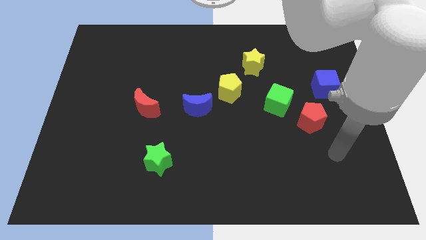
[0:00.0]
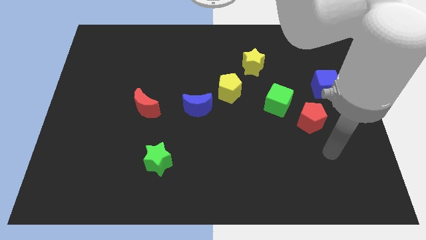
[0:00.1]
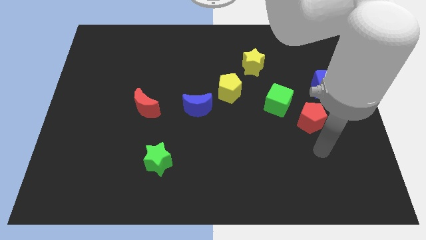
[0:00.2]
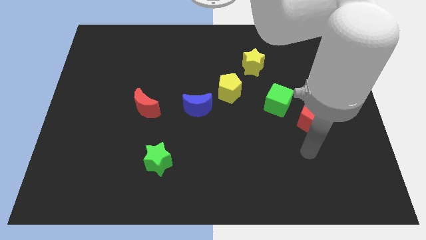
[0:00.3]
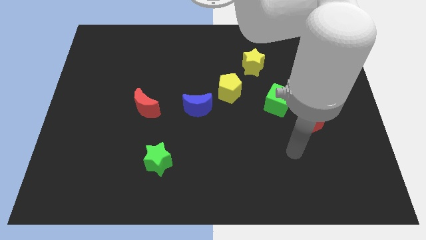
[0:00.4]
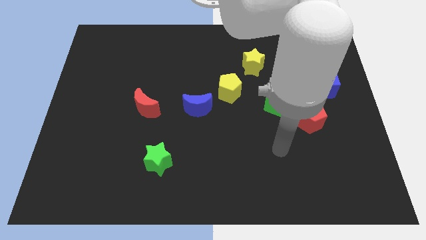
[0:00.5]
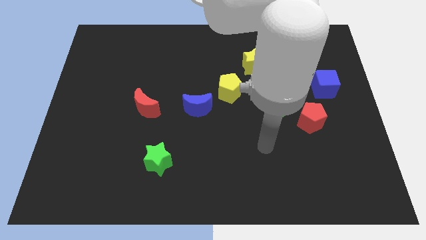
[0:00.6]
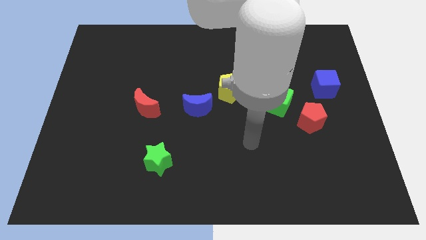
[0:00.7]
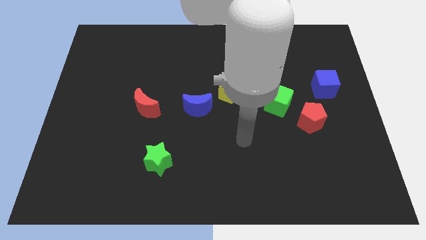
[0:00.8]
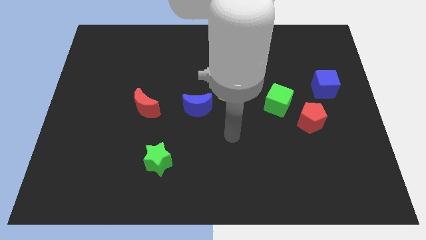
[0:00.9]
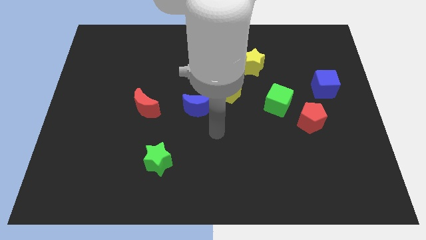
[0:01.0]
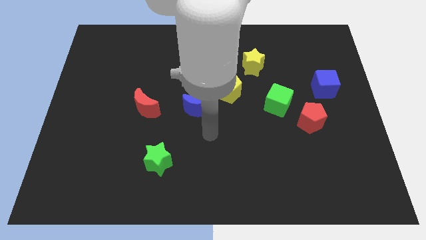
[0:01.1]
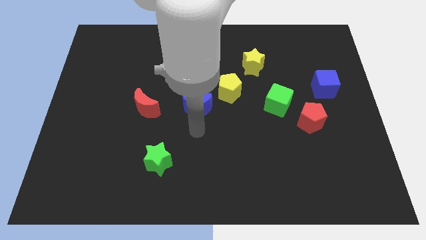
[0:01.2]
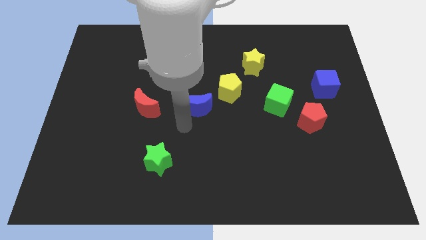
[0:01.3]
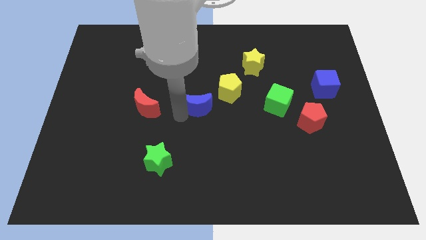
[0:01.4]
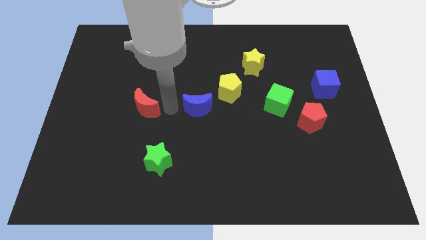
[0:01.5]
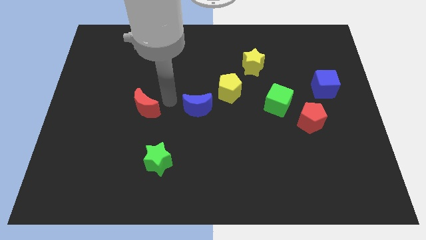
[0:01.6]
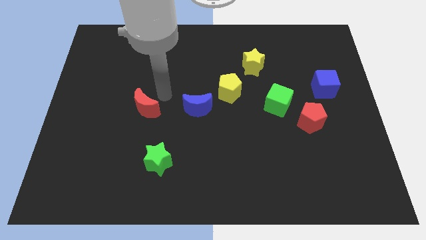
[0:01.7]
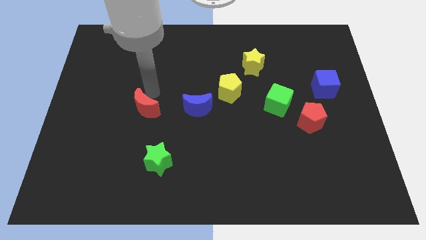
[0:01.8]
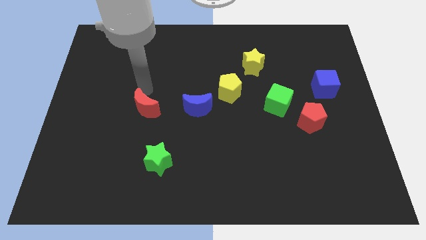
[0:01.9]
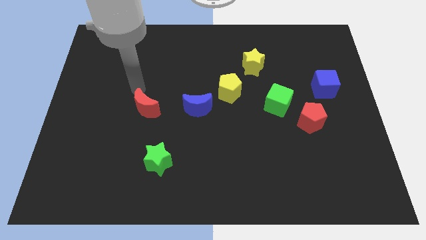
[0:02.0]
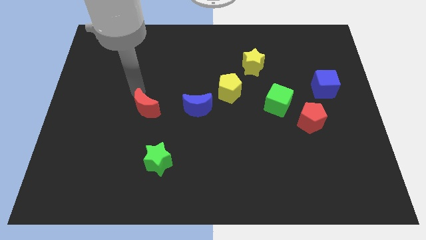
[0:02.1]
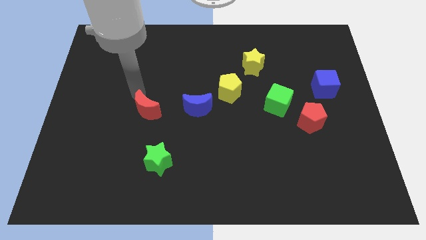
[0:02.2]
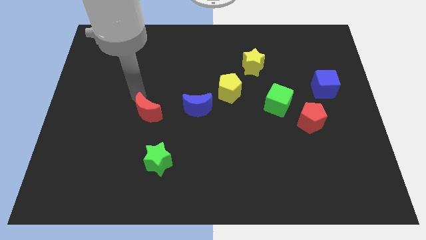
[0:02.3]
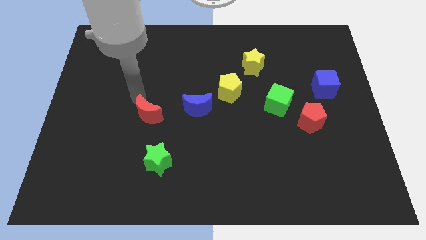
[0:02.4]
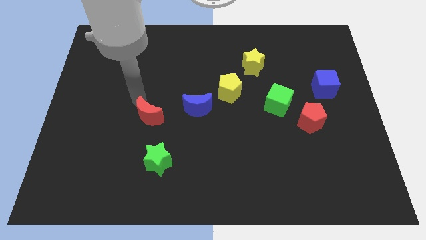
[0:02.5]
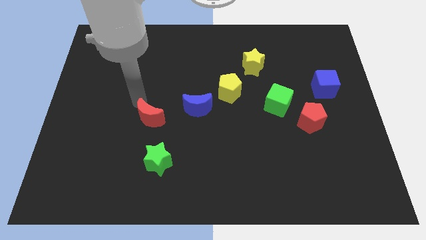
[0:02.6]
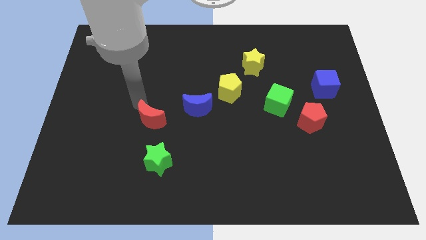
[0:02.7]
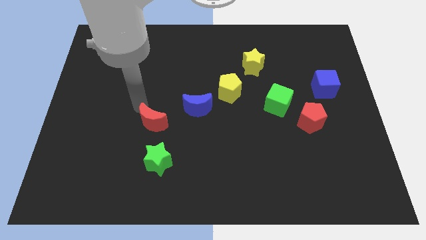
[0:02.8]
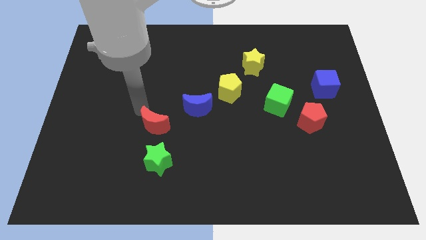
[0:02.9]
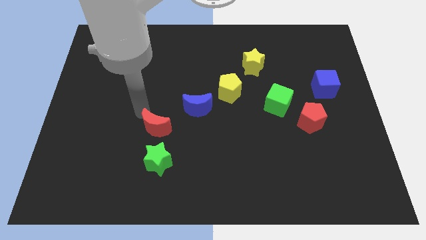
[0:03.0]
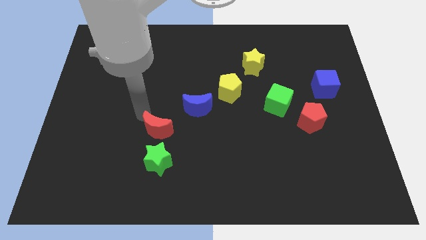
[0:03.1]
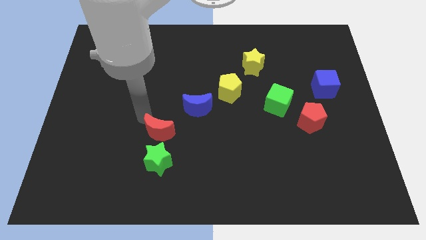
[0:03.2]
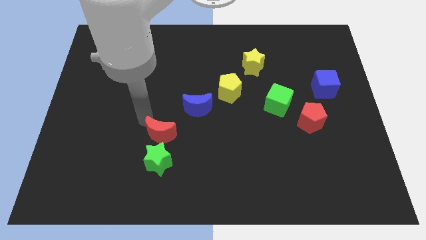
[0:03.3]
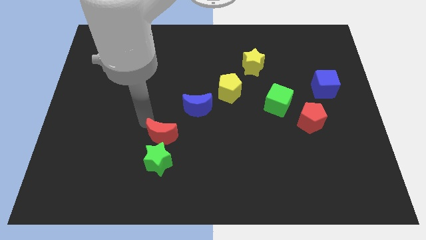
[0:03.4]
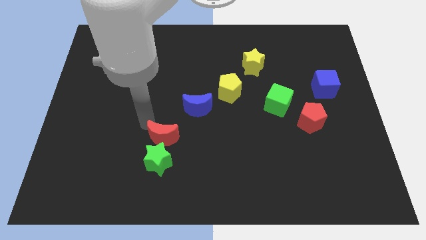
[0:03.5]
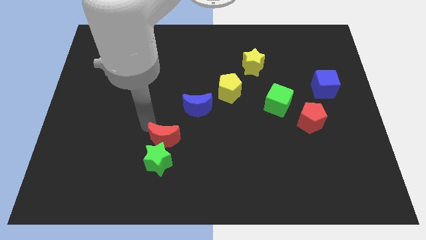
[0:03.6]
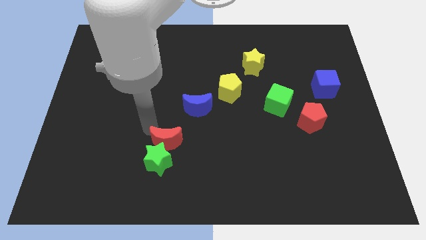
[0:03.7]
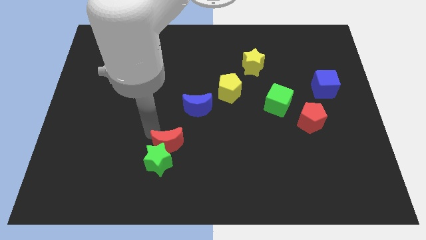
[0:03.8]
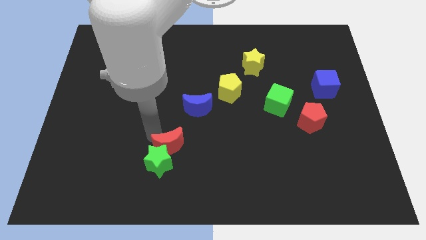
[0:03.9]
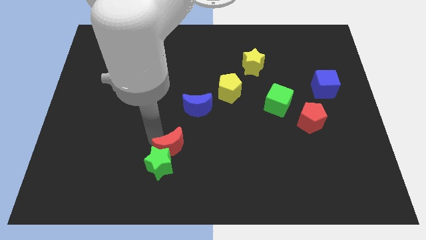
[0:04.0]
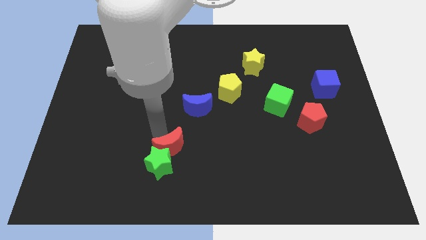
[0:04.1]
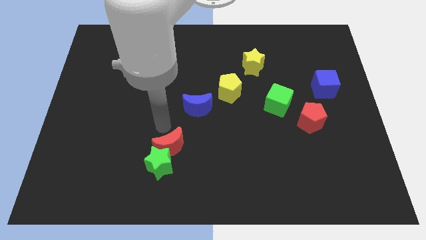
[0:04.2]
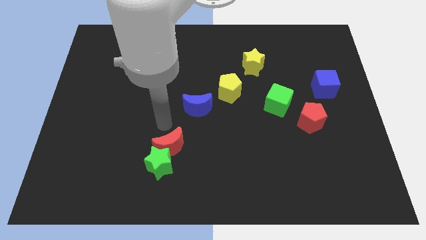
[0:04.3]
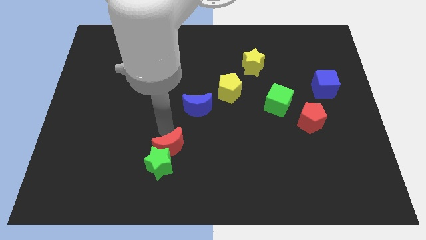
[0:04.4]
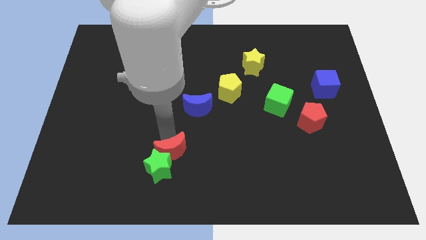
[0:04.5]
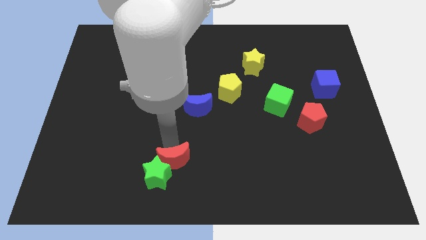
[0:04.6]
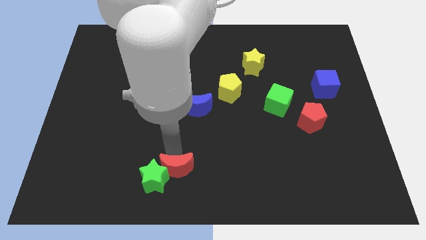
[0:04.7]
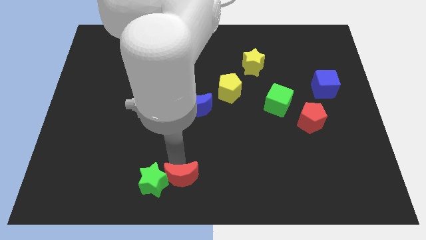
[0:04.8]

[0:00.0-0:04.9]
slide the red moon diagonally down and to the right of the green star

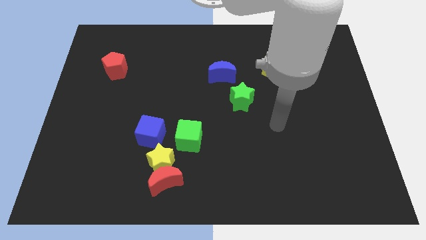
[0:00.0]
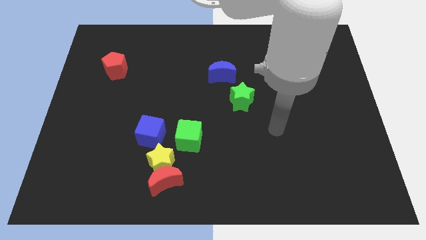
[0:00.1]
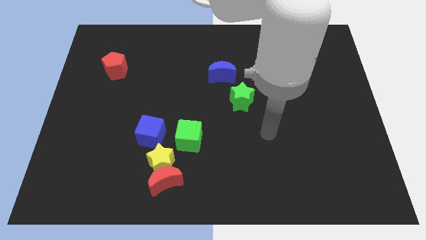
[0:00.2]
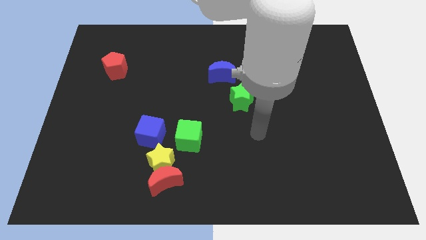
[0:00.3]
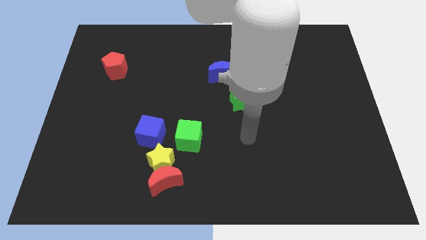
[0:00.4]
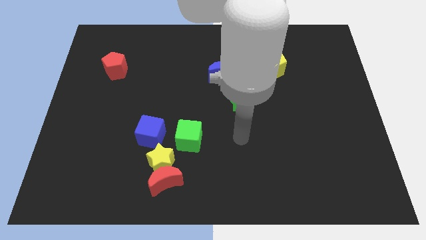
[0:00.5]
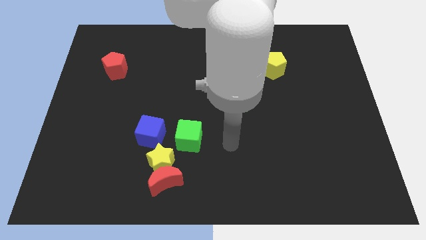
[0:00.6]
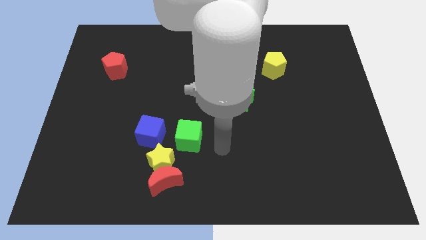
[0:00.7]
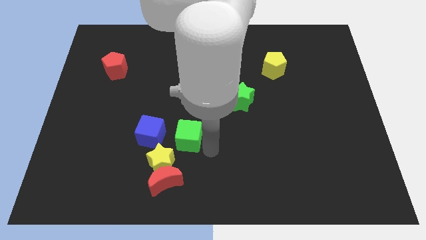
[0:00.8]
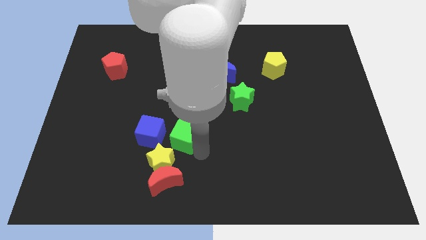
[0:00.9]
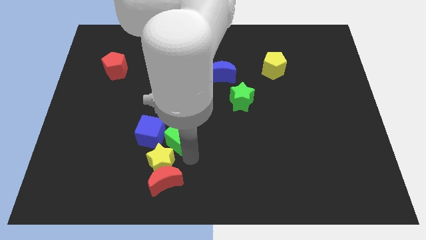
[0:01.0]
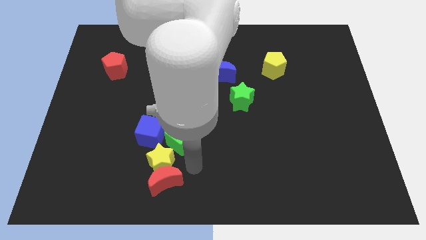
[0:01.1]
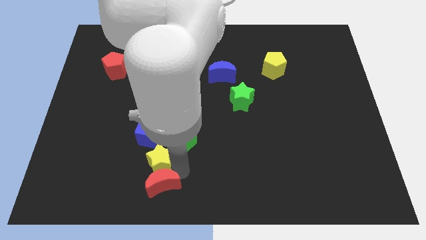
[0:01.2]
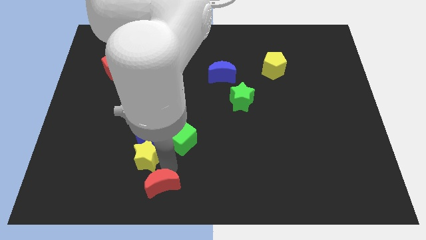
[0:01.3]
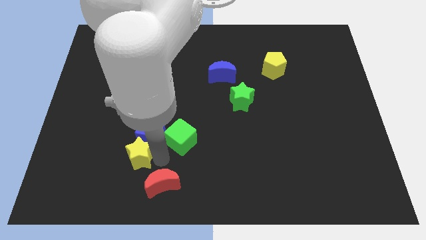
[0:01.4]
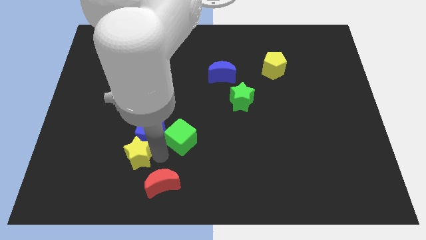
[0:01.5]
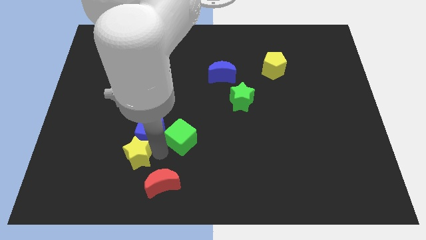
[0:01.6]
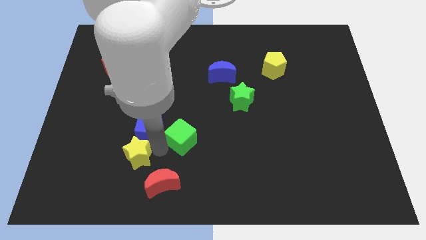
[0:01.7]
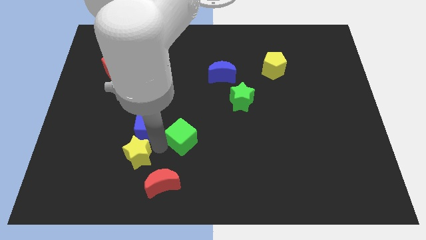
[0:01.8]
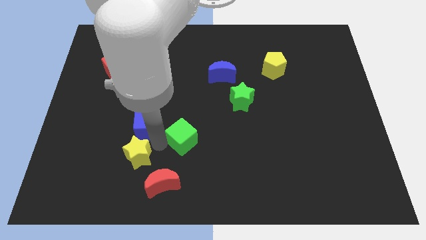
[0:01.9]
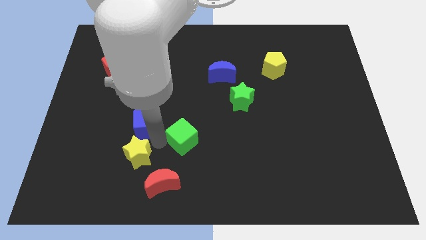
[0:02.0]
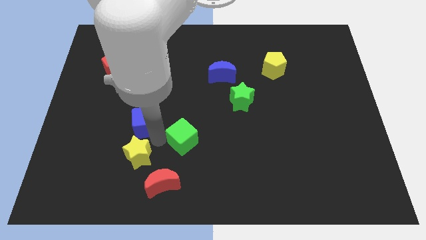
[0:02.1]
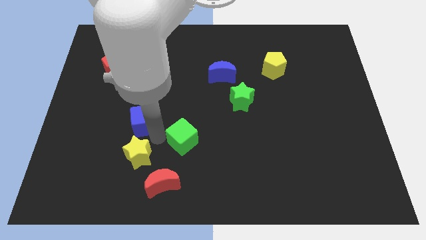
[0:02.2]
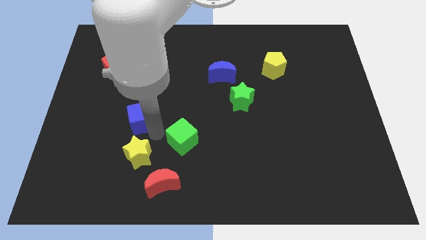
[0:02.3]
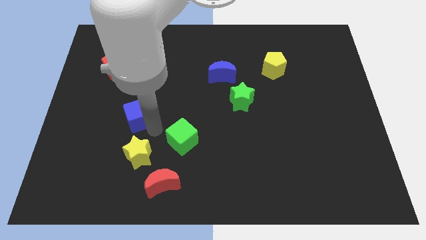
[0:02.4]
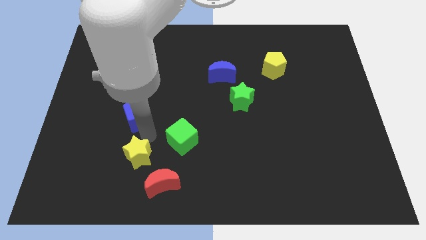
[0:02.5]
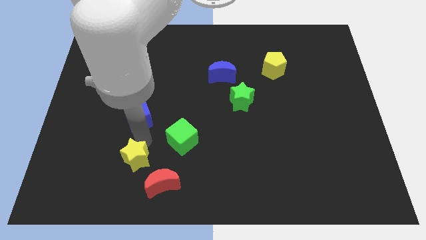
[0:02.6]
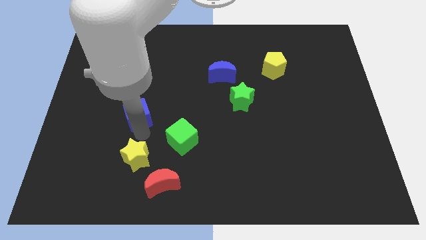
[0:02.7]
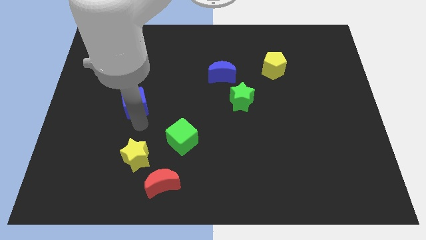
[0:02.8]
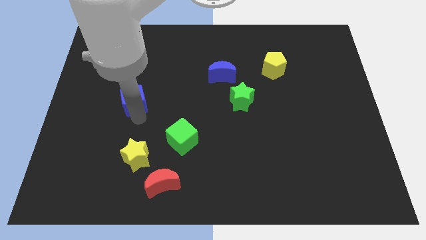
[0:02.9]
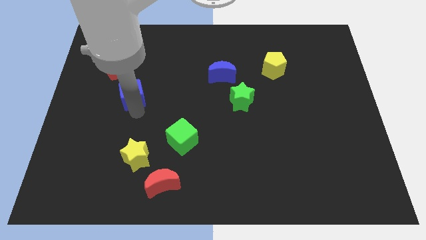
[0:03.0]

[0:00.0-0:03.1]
put the blue cube to the bottom right of the red pentagon
